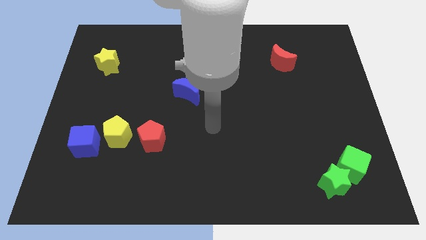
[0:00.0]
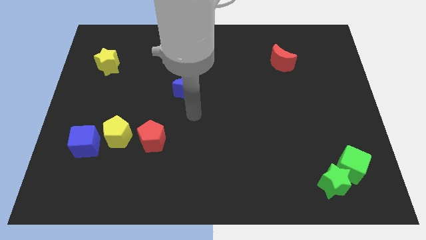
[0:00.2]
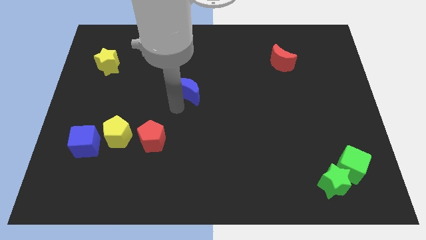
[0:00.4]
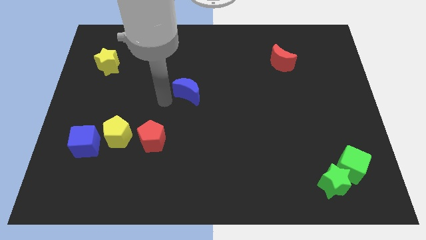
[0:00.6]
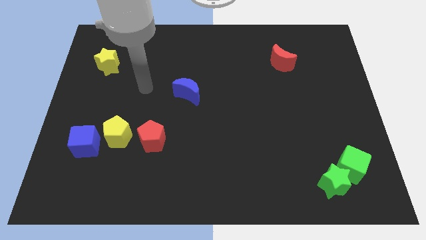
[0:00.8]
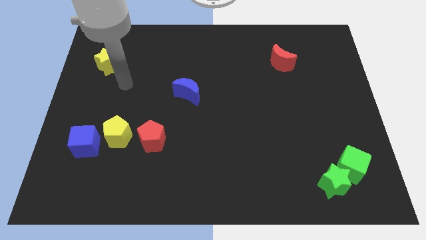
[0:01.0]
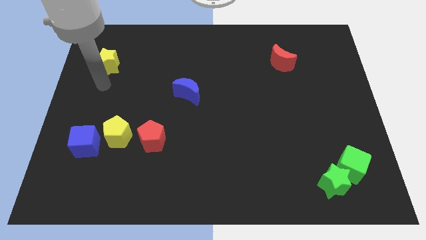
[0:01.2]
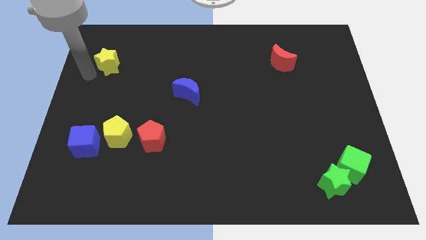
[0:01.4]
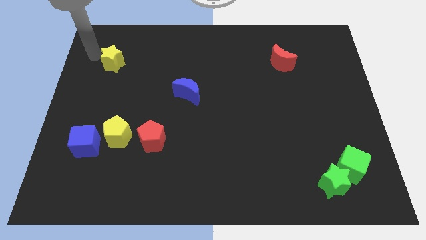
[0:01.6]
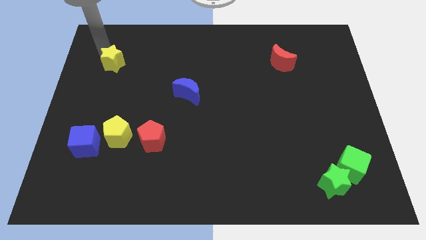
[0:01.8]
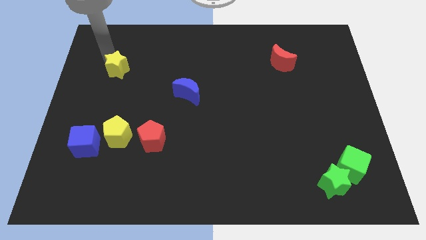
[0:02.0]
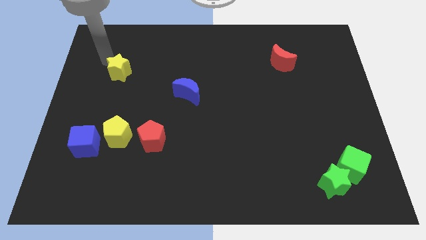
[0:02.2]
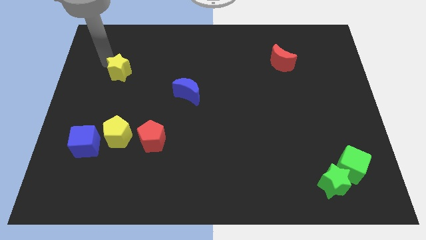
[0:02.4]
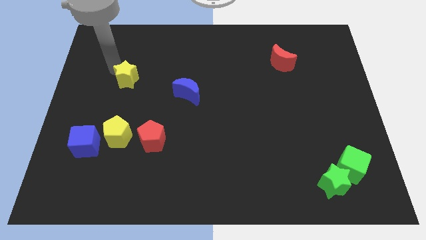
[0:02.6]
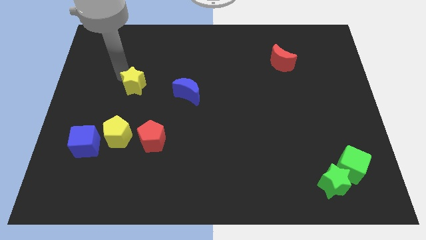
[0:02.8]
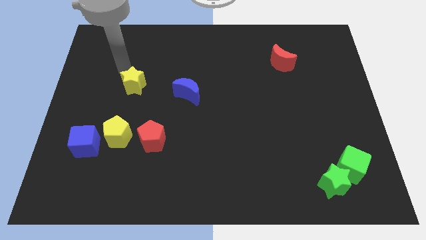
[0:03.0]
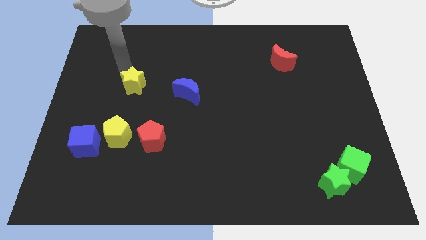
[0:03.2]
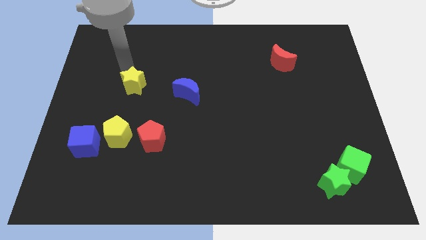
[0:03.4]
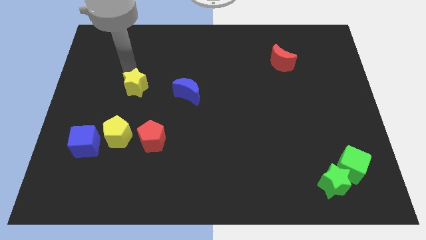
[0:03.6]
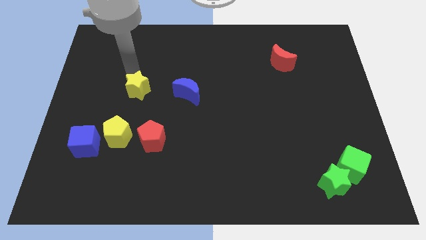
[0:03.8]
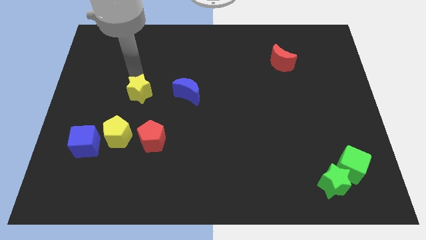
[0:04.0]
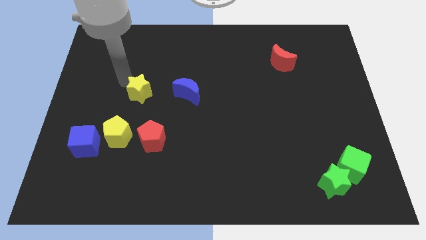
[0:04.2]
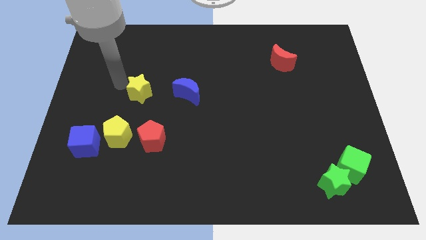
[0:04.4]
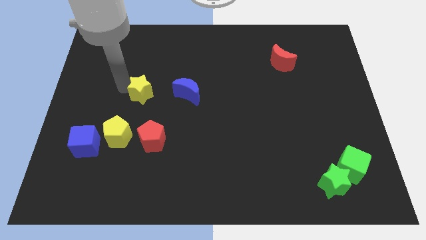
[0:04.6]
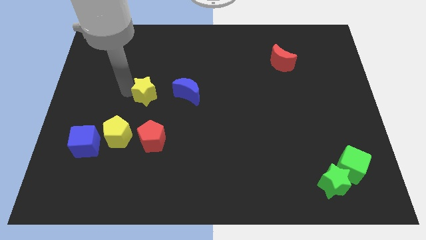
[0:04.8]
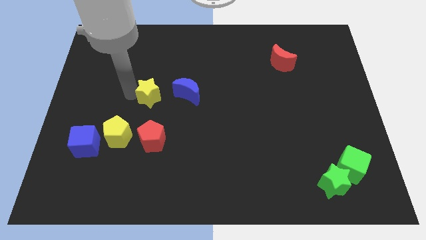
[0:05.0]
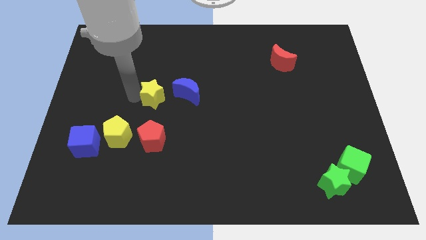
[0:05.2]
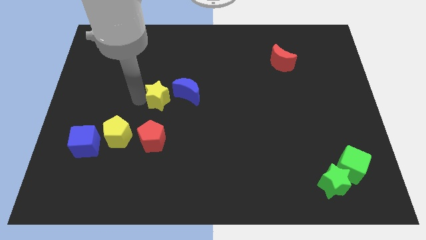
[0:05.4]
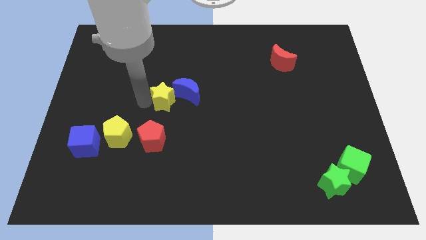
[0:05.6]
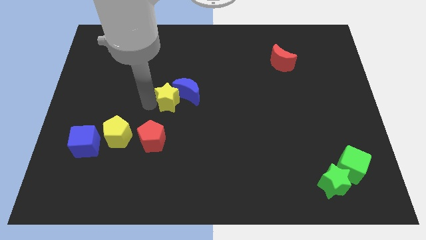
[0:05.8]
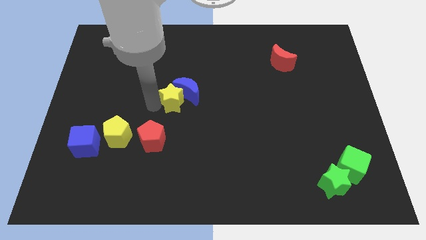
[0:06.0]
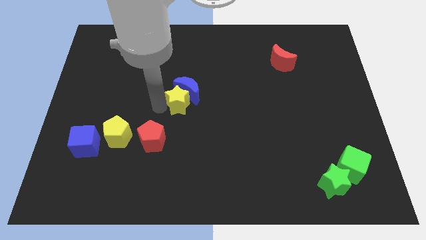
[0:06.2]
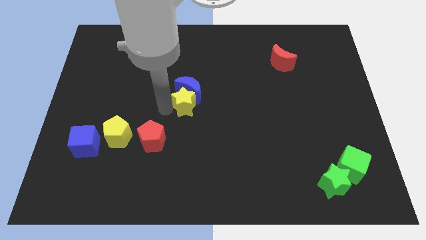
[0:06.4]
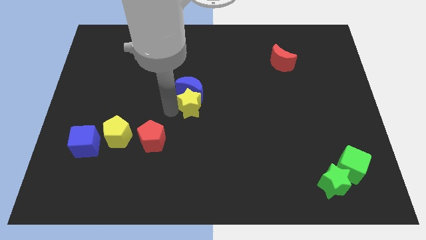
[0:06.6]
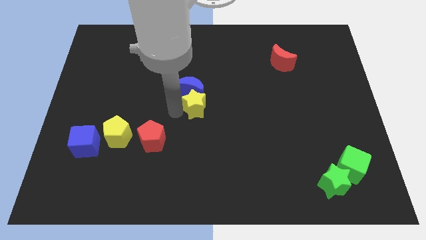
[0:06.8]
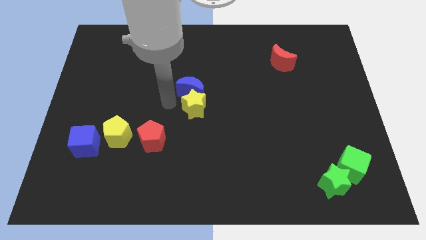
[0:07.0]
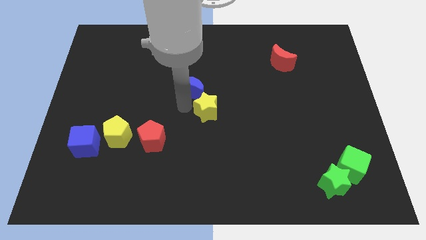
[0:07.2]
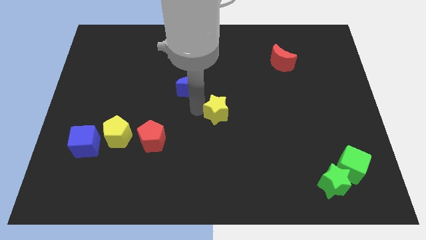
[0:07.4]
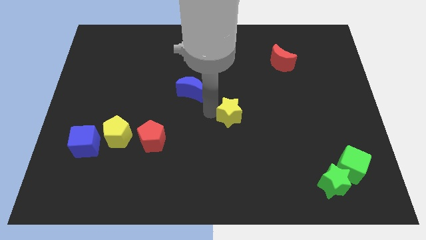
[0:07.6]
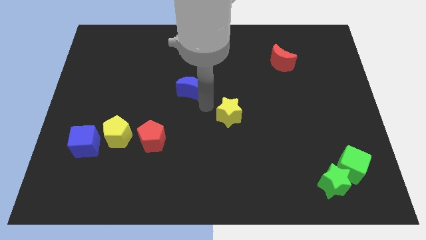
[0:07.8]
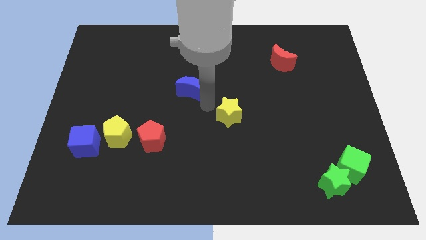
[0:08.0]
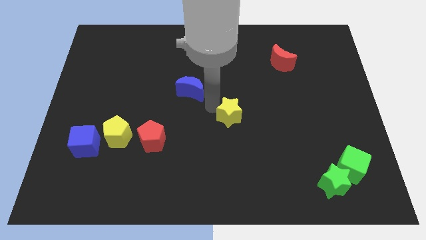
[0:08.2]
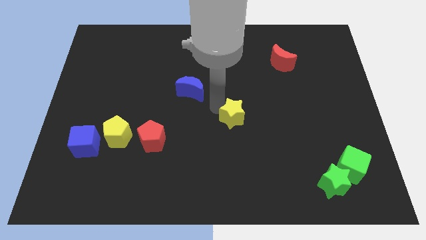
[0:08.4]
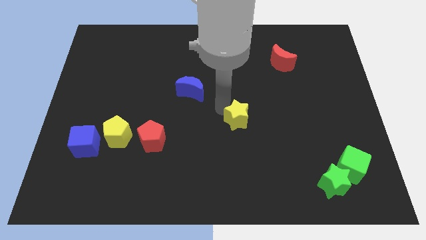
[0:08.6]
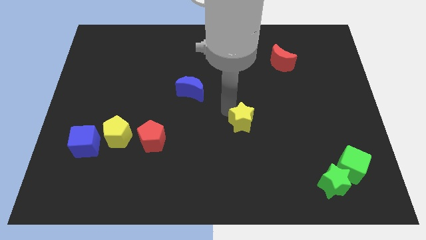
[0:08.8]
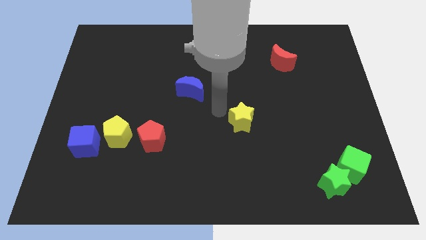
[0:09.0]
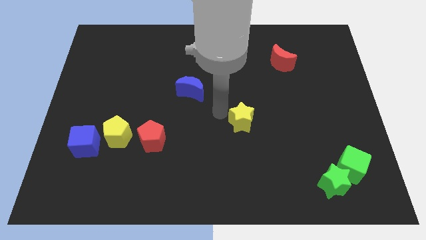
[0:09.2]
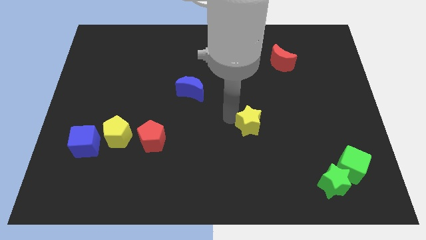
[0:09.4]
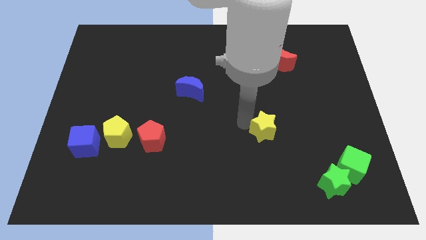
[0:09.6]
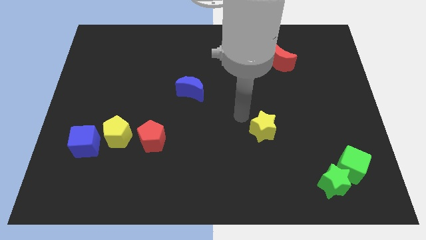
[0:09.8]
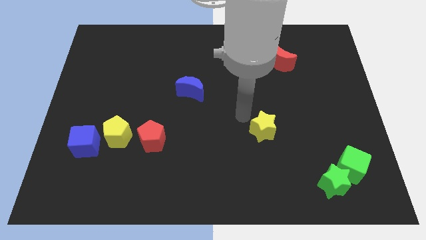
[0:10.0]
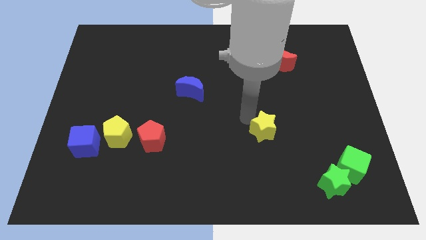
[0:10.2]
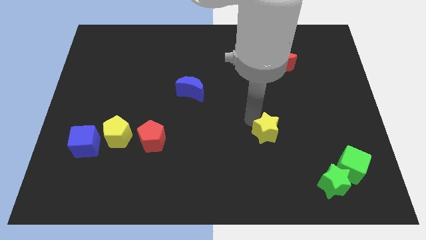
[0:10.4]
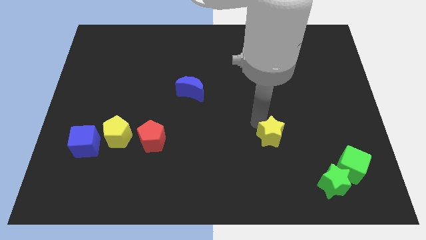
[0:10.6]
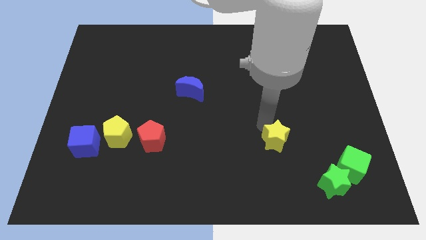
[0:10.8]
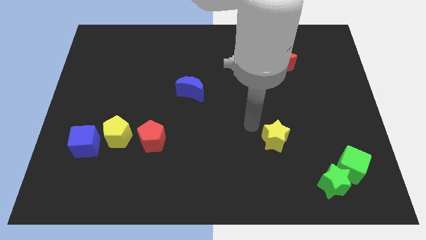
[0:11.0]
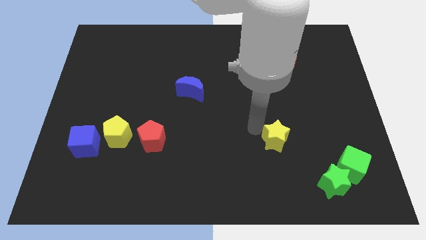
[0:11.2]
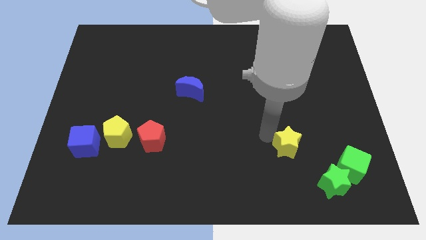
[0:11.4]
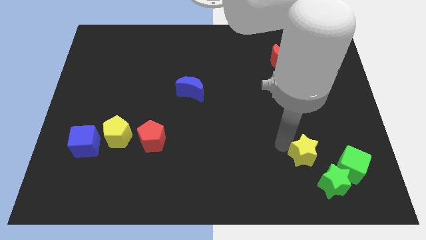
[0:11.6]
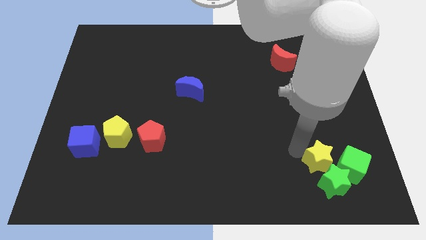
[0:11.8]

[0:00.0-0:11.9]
put the yellow star close to the green star

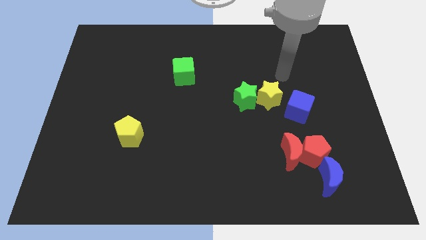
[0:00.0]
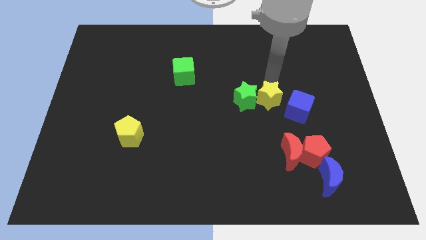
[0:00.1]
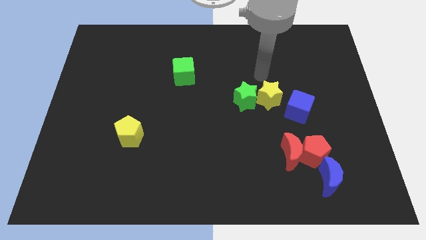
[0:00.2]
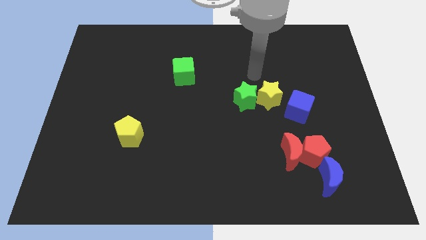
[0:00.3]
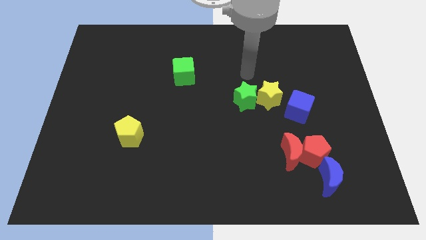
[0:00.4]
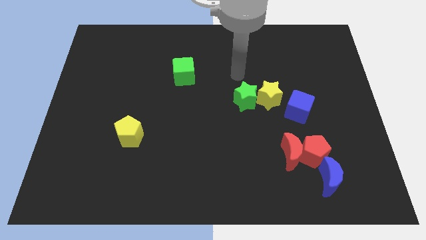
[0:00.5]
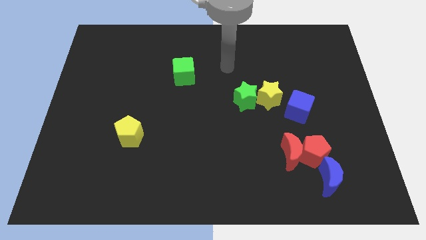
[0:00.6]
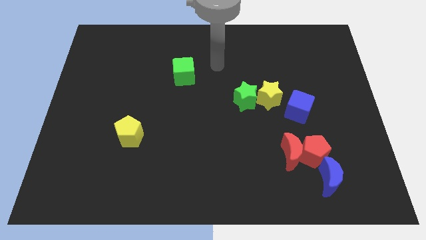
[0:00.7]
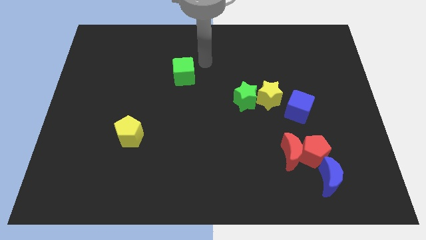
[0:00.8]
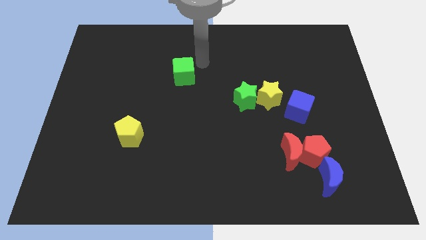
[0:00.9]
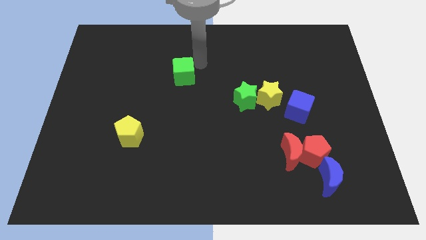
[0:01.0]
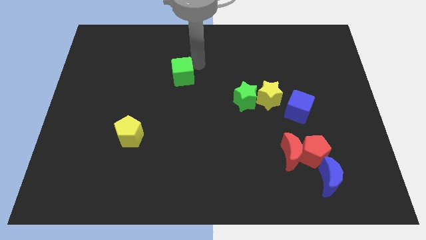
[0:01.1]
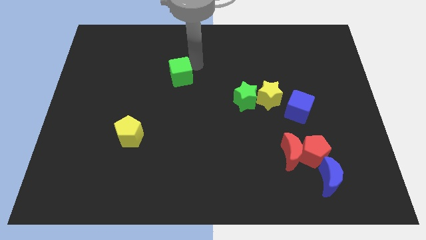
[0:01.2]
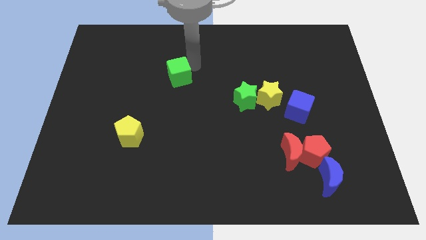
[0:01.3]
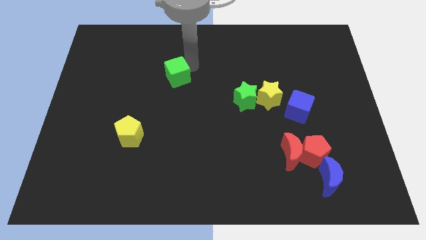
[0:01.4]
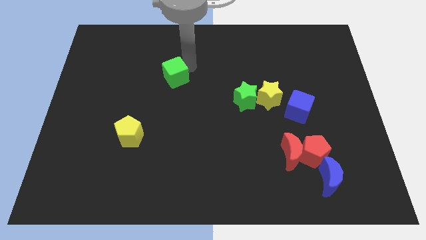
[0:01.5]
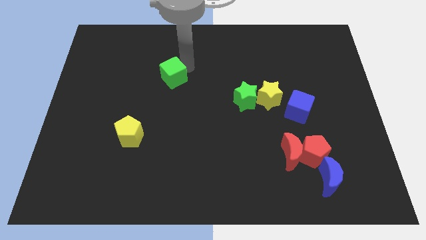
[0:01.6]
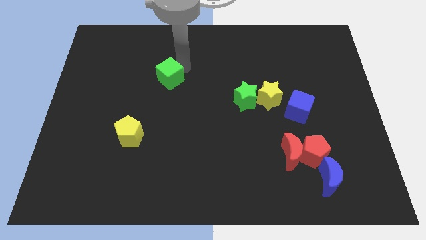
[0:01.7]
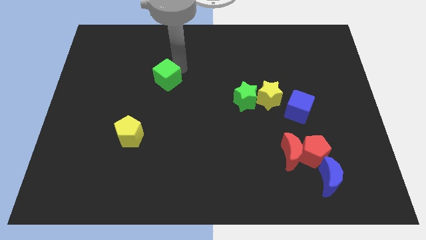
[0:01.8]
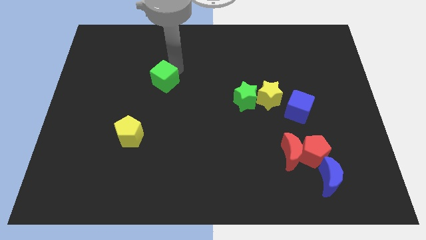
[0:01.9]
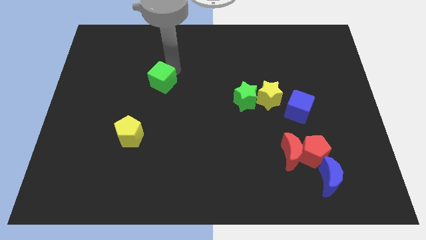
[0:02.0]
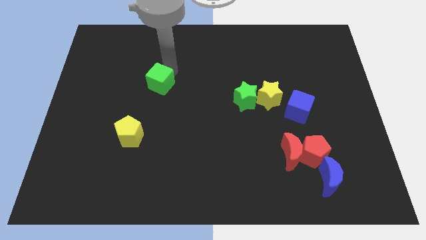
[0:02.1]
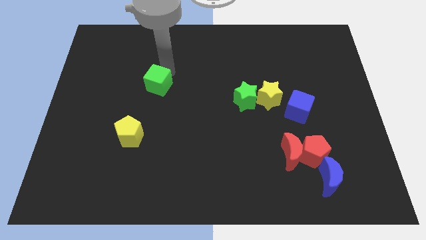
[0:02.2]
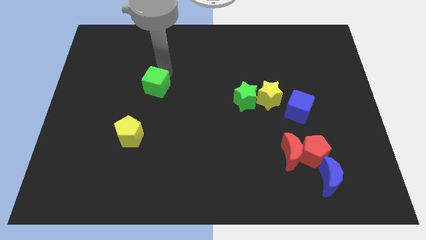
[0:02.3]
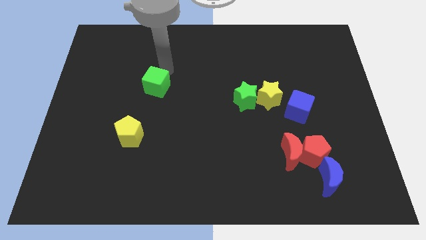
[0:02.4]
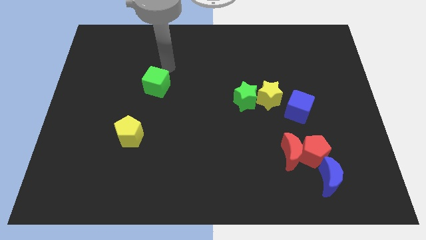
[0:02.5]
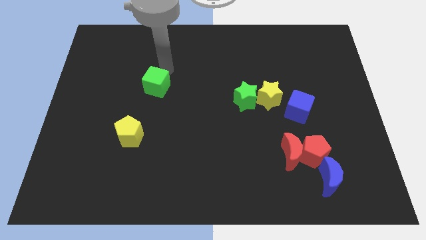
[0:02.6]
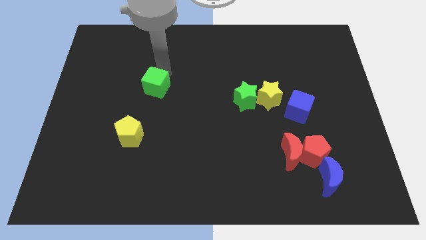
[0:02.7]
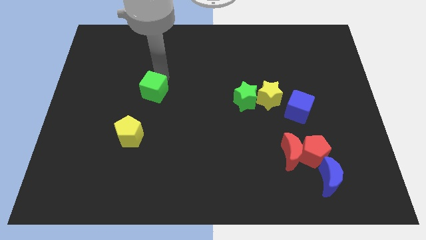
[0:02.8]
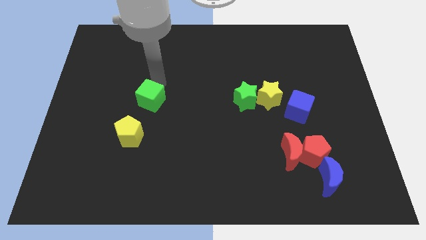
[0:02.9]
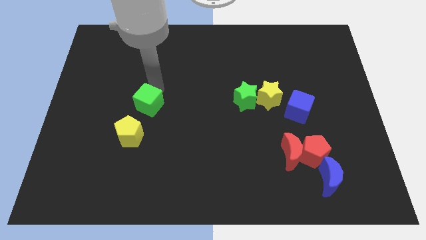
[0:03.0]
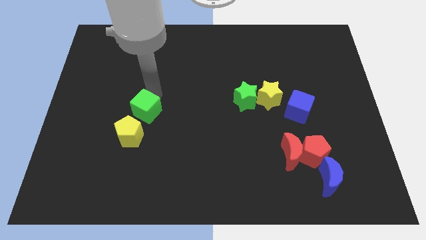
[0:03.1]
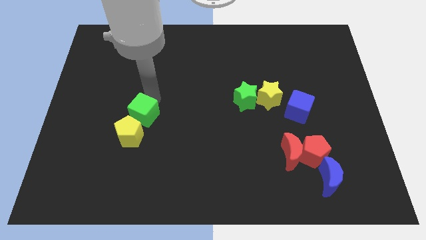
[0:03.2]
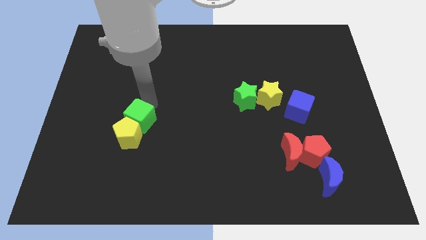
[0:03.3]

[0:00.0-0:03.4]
push the green cube to the yellow pentagon
